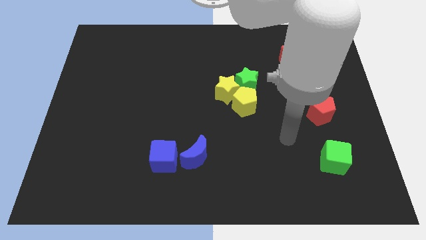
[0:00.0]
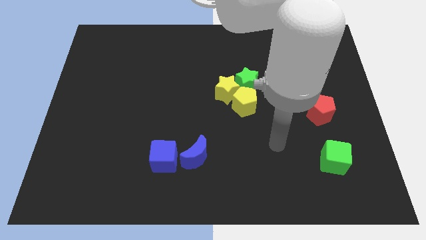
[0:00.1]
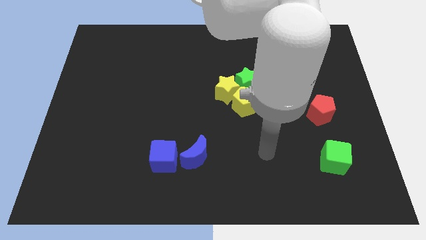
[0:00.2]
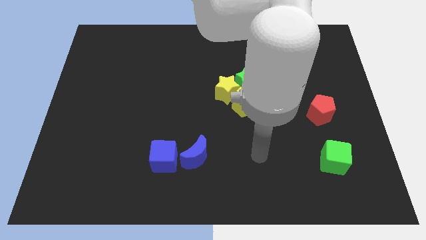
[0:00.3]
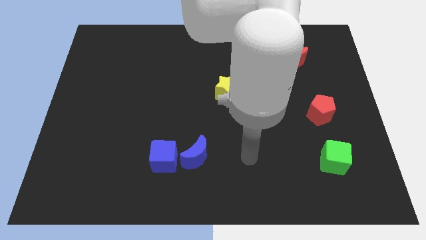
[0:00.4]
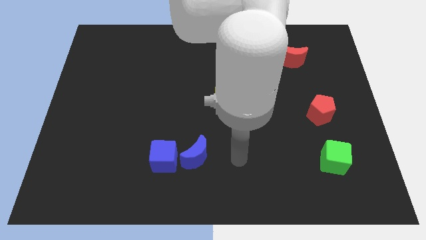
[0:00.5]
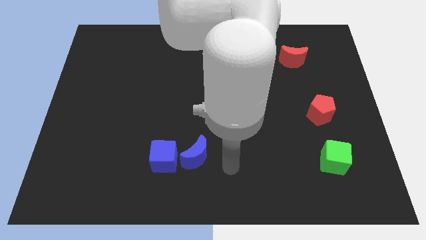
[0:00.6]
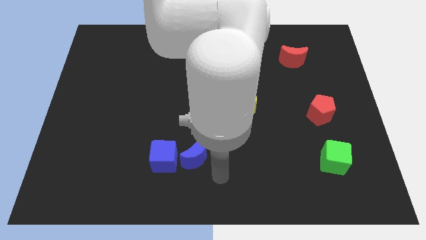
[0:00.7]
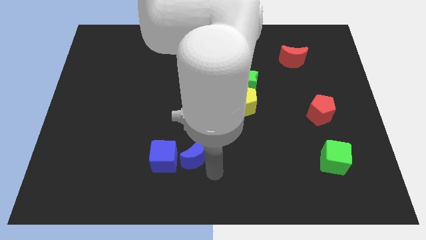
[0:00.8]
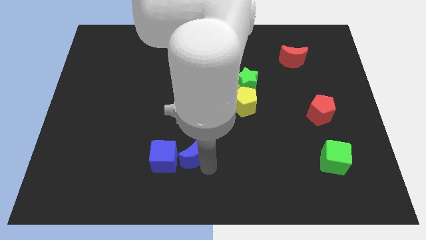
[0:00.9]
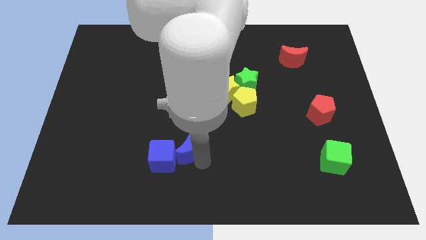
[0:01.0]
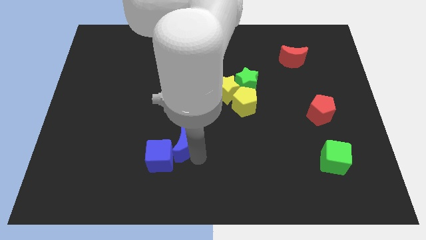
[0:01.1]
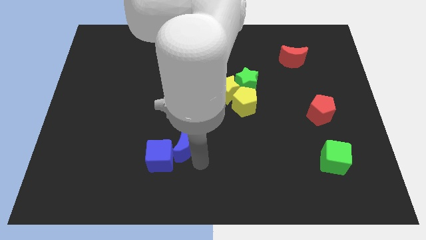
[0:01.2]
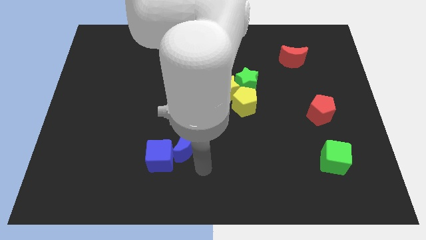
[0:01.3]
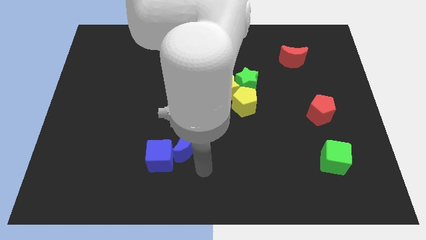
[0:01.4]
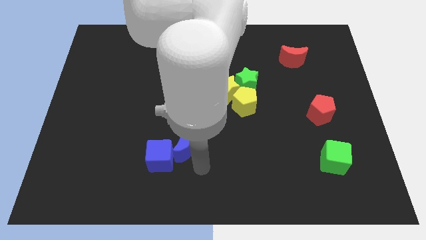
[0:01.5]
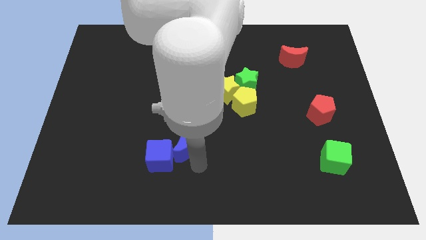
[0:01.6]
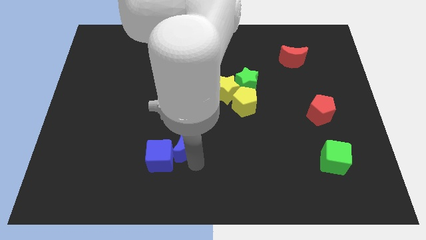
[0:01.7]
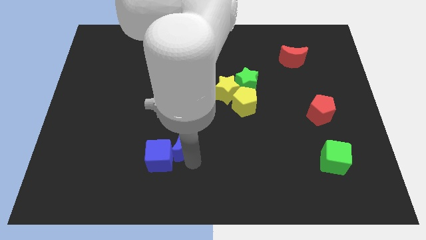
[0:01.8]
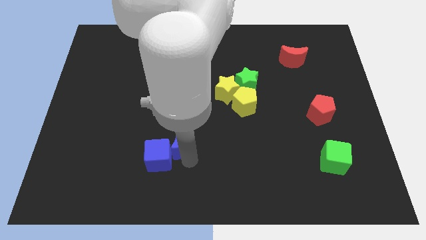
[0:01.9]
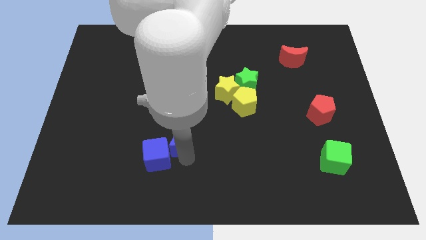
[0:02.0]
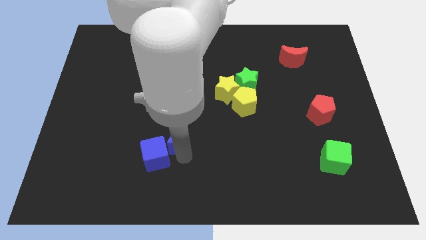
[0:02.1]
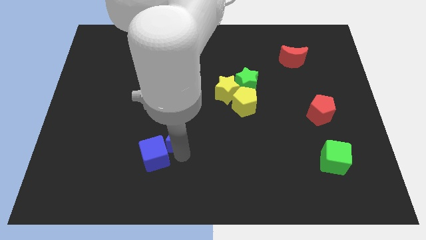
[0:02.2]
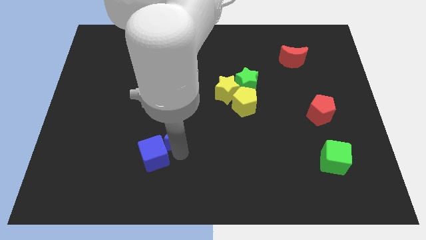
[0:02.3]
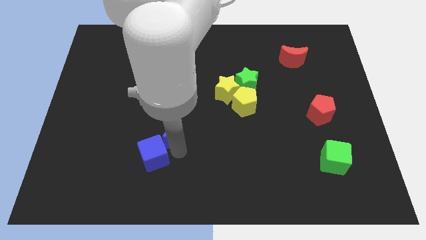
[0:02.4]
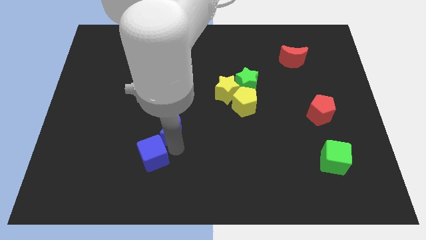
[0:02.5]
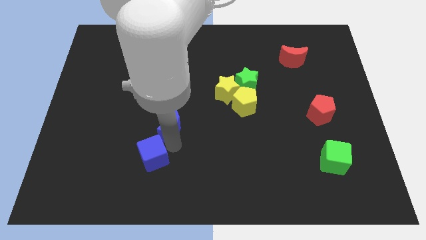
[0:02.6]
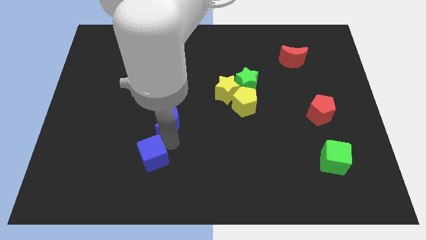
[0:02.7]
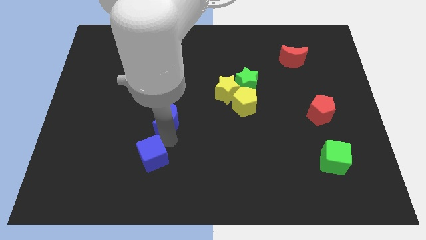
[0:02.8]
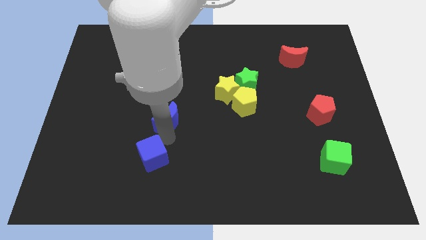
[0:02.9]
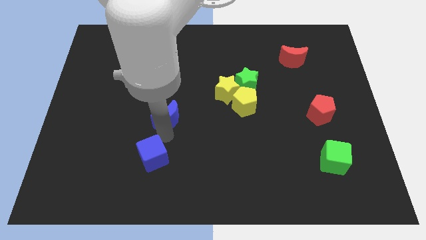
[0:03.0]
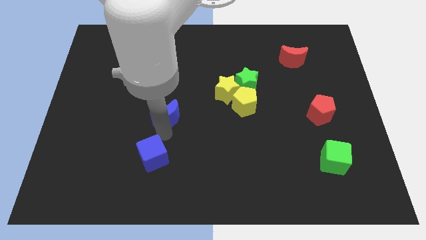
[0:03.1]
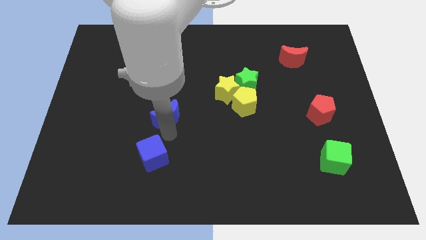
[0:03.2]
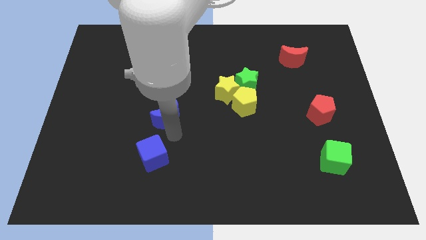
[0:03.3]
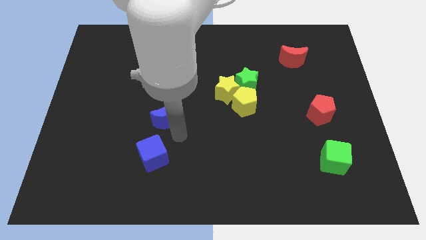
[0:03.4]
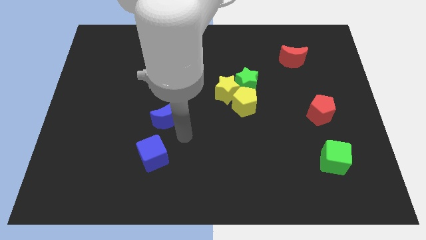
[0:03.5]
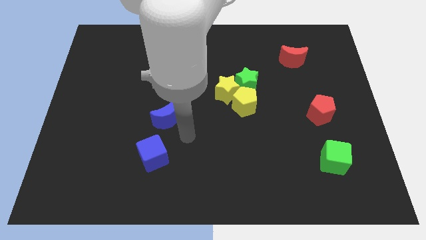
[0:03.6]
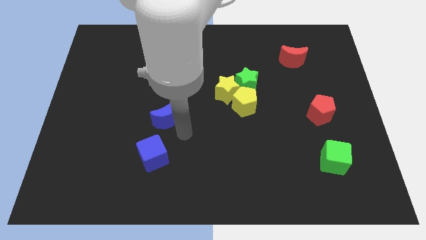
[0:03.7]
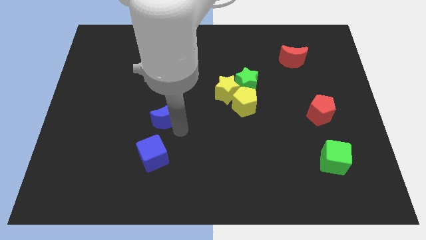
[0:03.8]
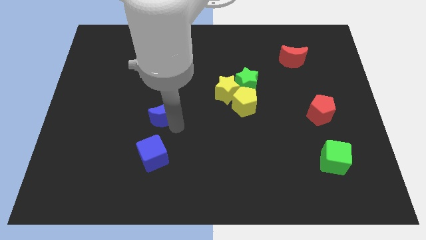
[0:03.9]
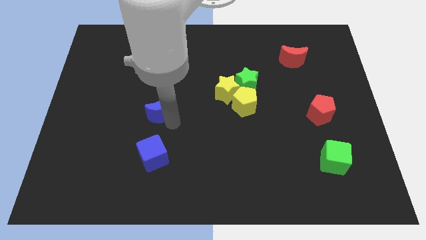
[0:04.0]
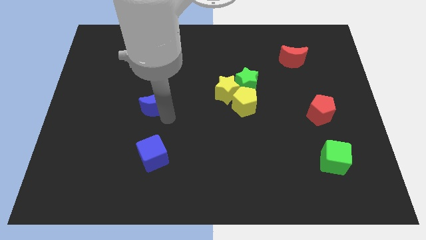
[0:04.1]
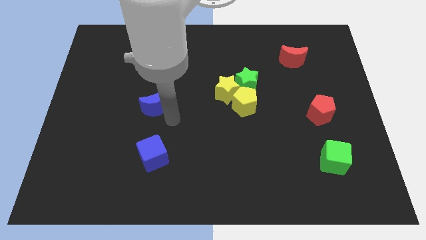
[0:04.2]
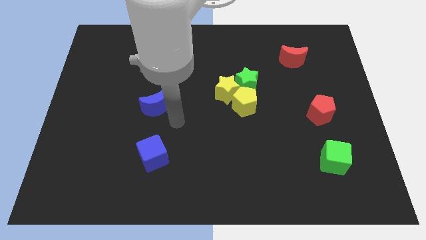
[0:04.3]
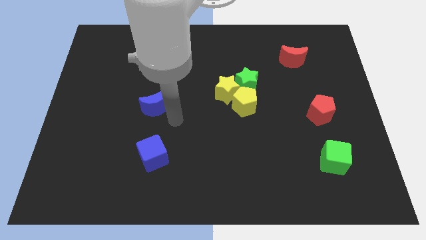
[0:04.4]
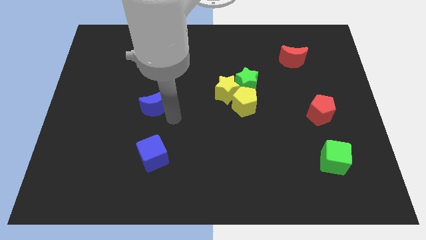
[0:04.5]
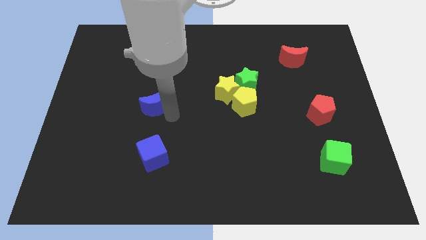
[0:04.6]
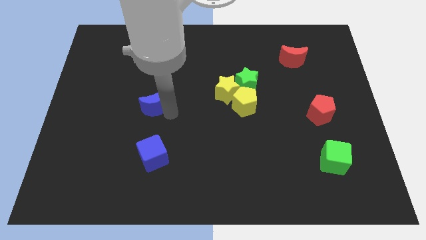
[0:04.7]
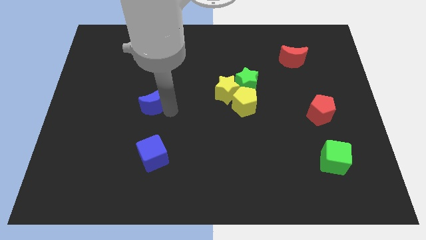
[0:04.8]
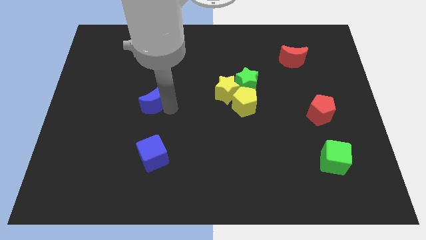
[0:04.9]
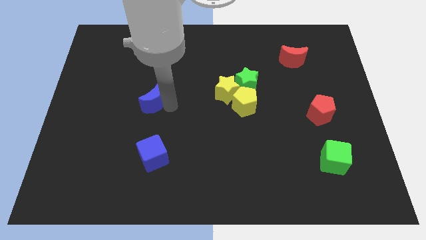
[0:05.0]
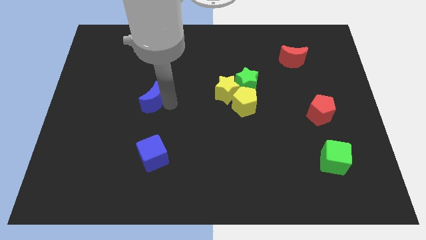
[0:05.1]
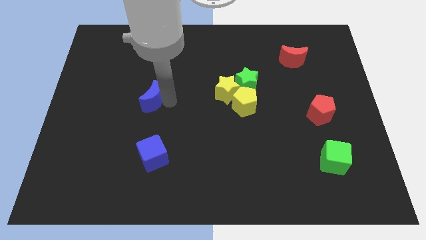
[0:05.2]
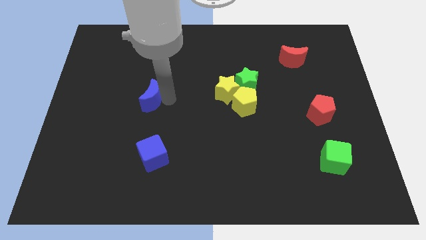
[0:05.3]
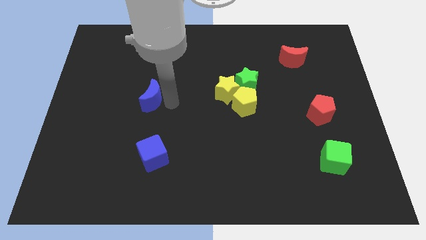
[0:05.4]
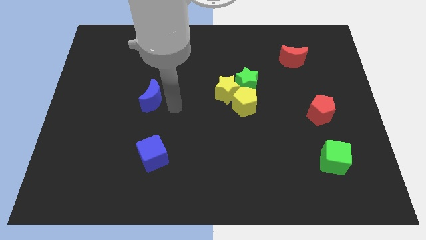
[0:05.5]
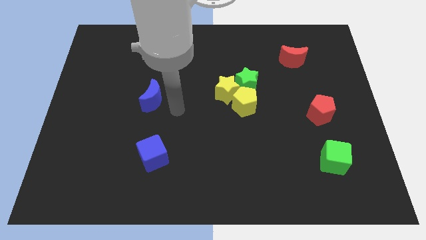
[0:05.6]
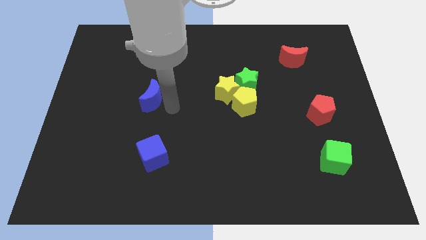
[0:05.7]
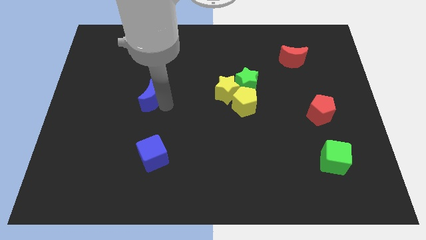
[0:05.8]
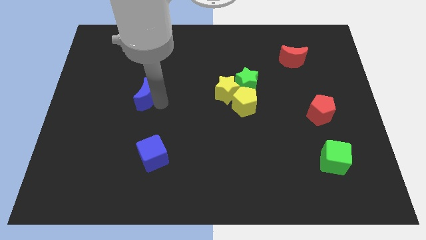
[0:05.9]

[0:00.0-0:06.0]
push the blue moon upwards and left diagonally

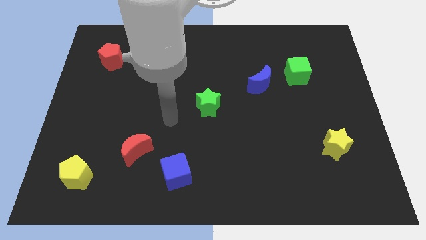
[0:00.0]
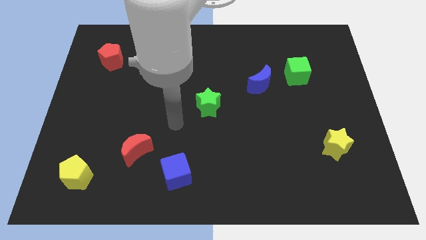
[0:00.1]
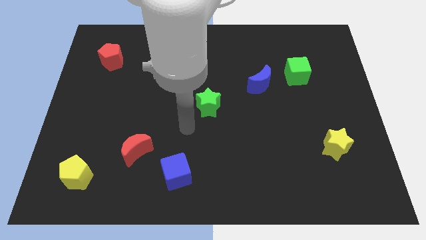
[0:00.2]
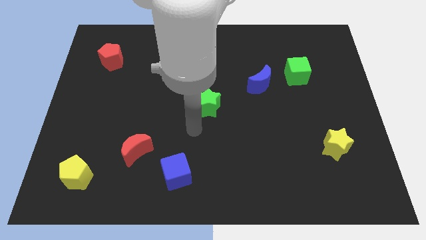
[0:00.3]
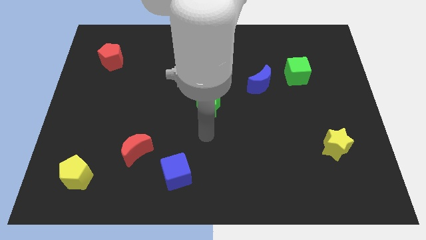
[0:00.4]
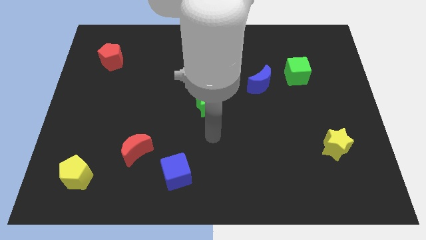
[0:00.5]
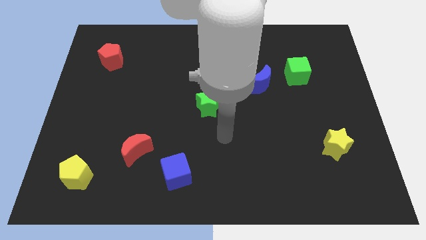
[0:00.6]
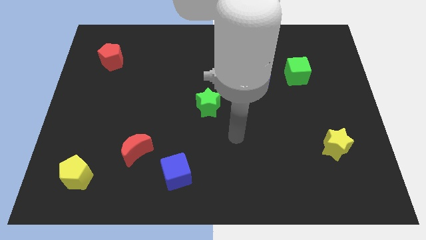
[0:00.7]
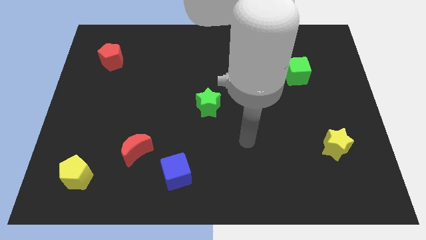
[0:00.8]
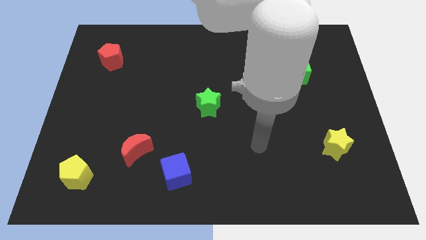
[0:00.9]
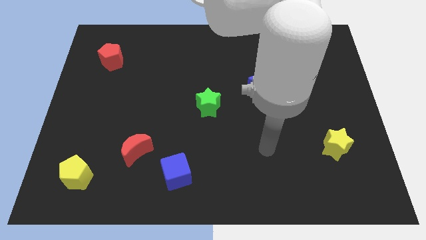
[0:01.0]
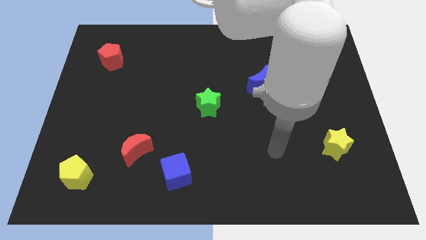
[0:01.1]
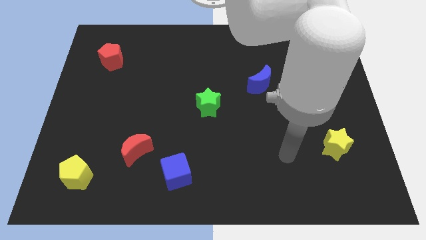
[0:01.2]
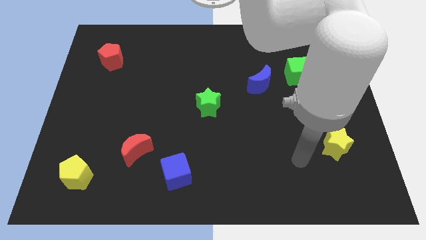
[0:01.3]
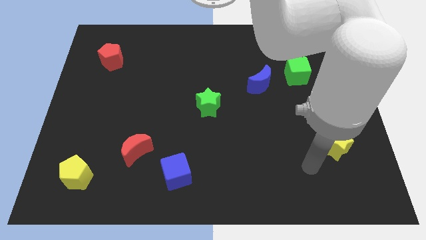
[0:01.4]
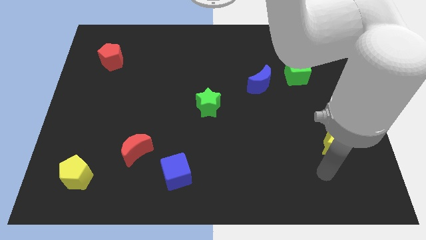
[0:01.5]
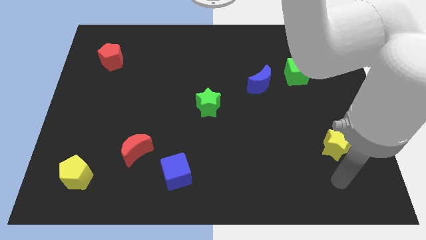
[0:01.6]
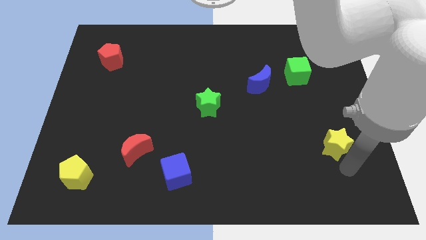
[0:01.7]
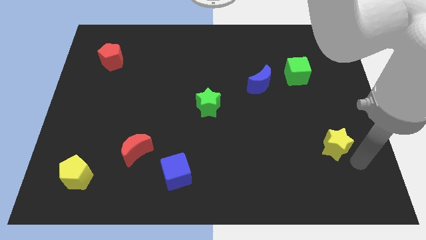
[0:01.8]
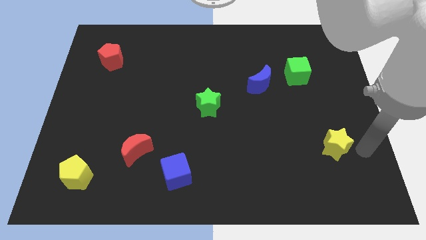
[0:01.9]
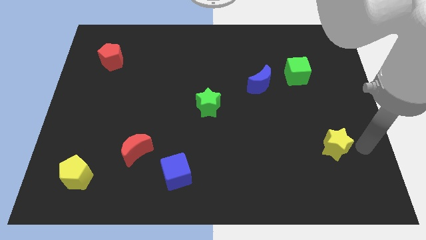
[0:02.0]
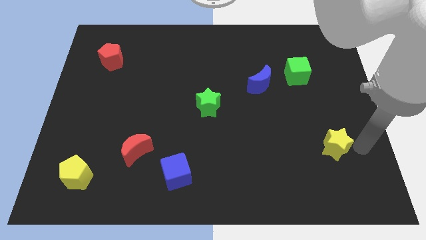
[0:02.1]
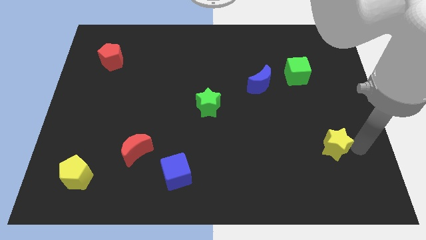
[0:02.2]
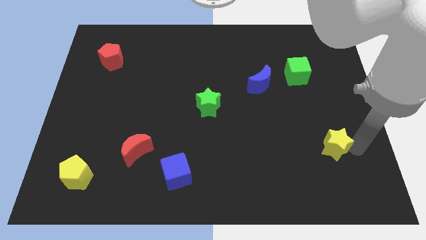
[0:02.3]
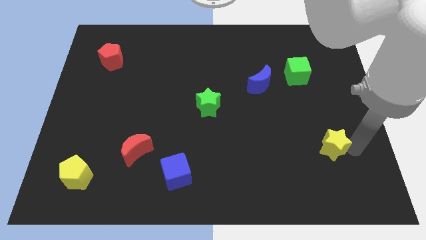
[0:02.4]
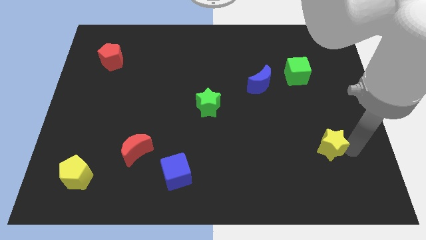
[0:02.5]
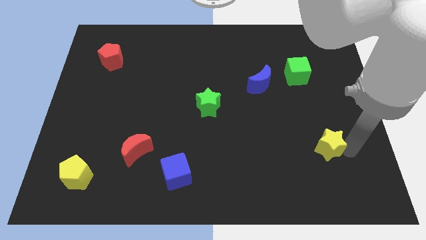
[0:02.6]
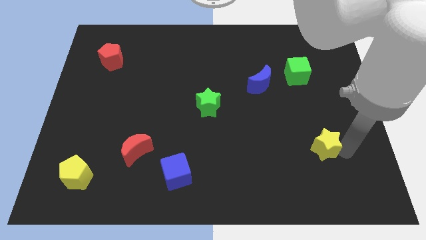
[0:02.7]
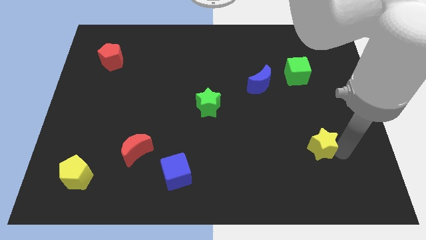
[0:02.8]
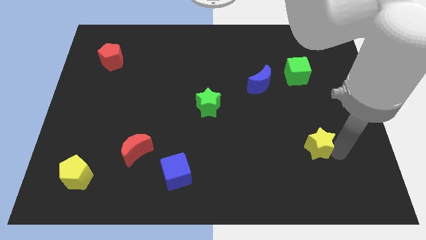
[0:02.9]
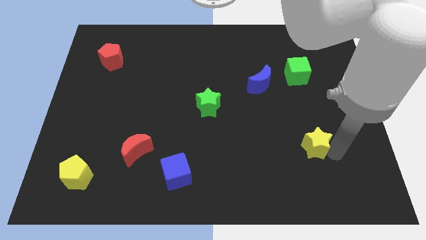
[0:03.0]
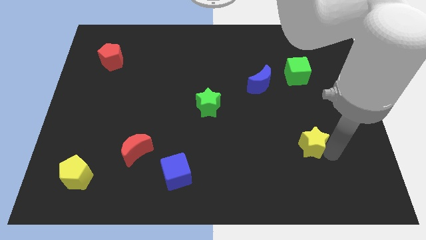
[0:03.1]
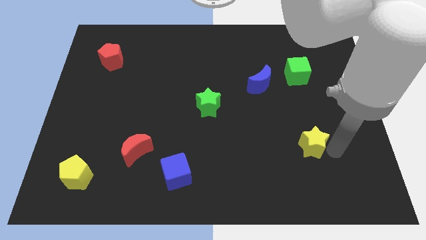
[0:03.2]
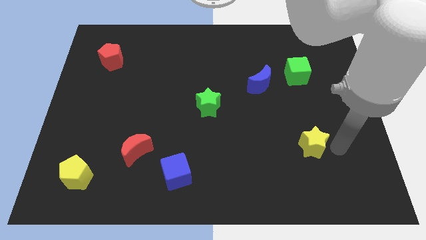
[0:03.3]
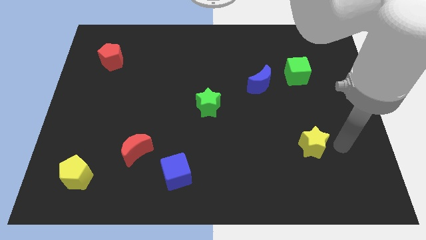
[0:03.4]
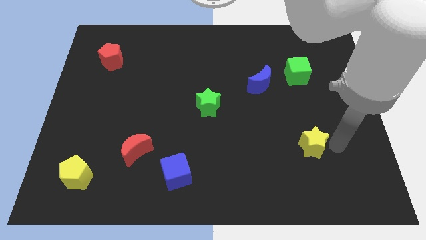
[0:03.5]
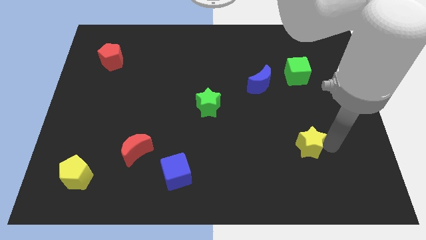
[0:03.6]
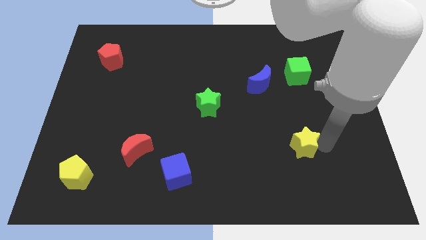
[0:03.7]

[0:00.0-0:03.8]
push the yellow star slightly left
